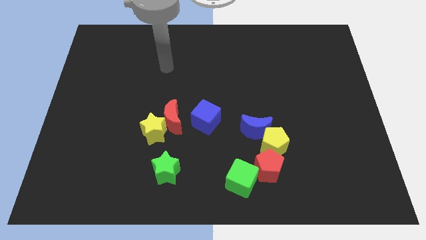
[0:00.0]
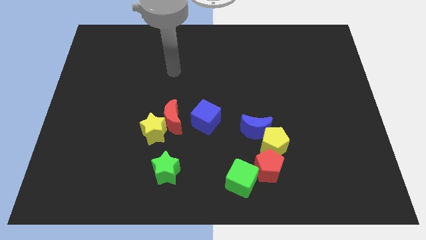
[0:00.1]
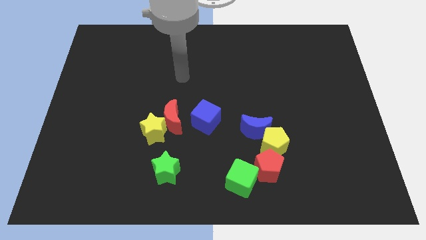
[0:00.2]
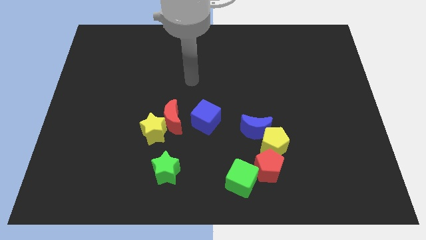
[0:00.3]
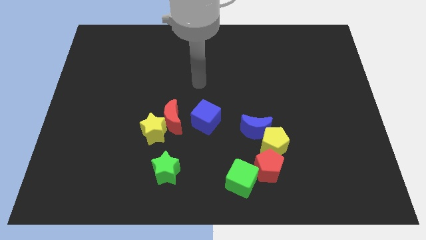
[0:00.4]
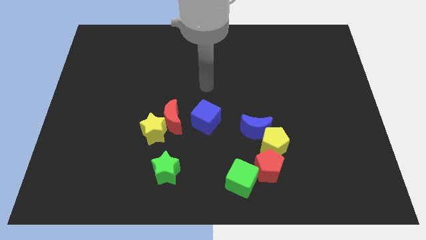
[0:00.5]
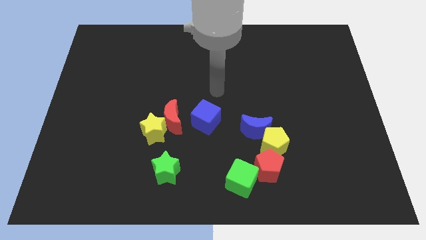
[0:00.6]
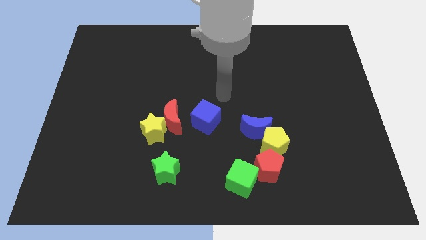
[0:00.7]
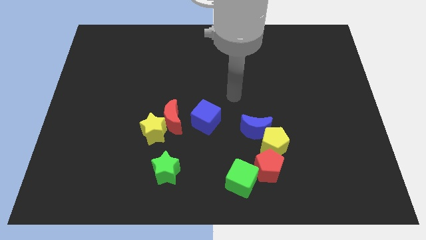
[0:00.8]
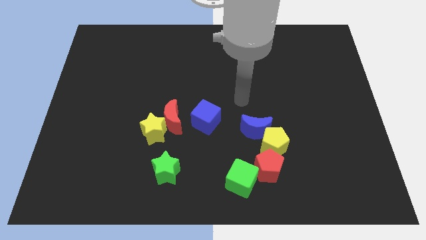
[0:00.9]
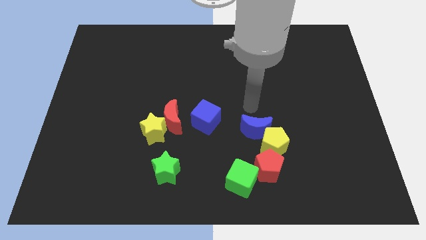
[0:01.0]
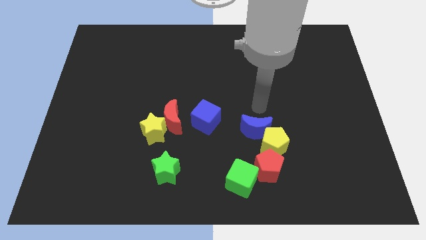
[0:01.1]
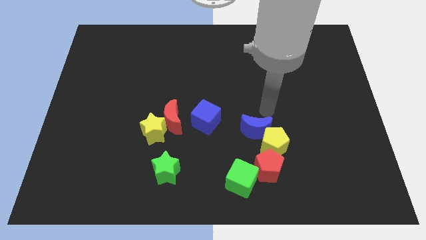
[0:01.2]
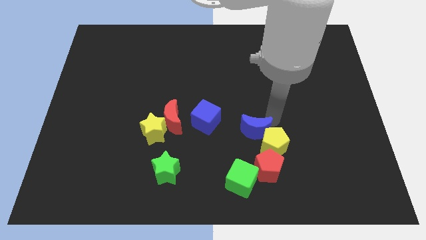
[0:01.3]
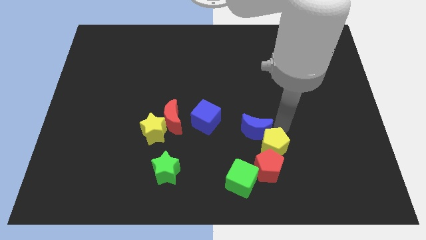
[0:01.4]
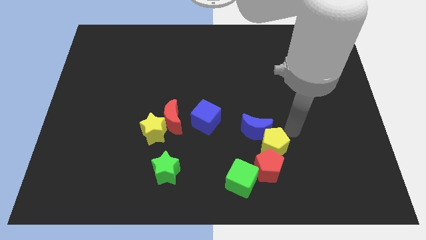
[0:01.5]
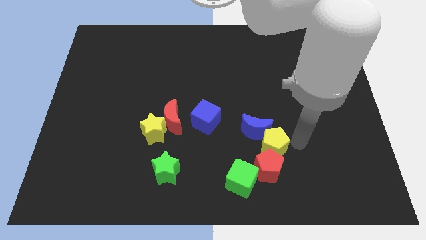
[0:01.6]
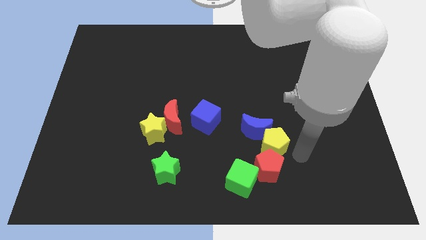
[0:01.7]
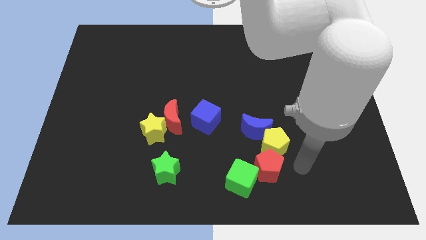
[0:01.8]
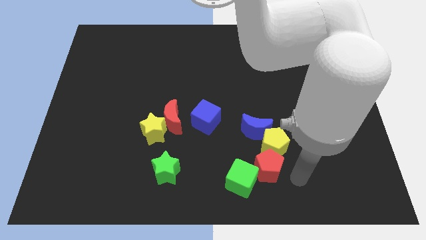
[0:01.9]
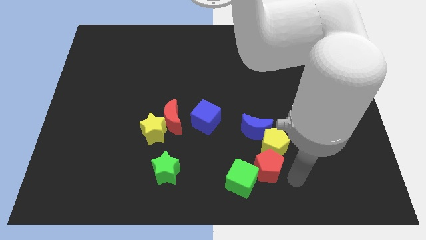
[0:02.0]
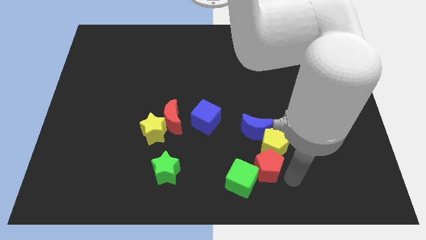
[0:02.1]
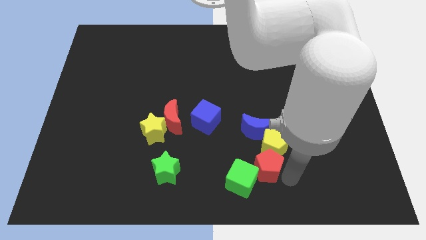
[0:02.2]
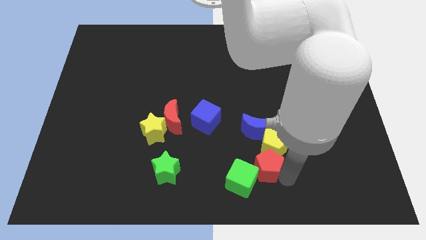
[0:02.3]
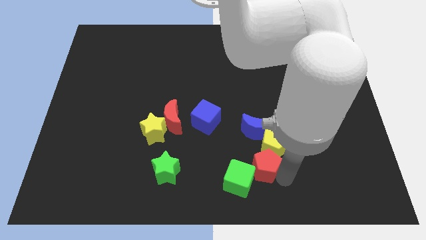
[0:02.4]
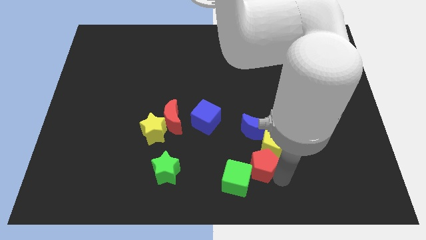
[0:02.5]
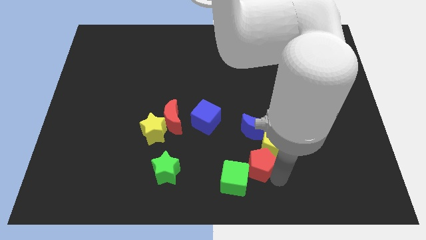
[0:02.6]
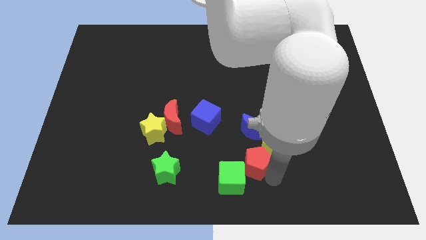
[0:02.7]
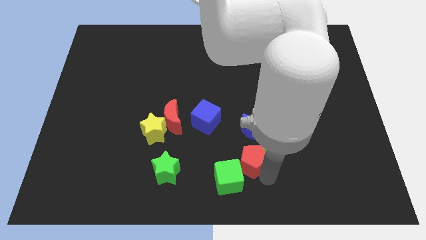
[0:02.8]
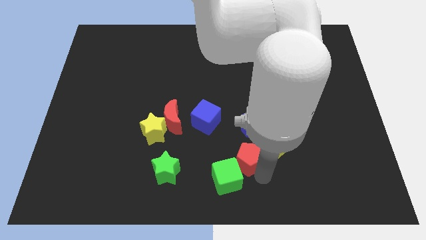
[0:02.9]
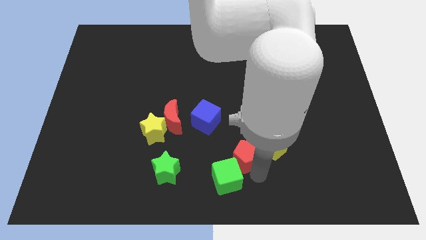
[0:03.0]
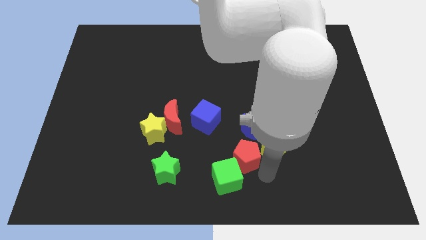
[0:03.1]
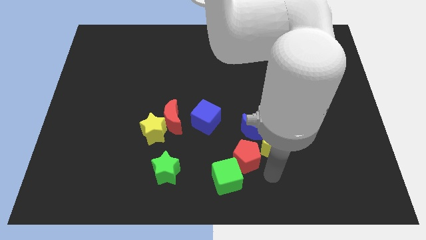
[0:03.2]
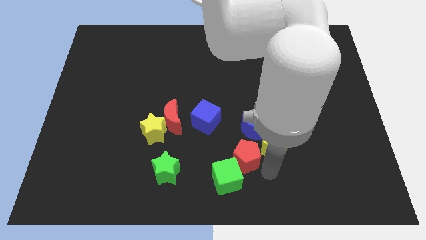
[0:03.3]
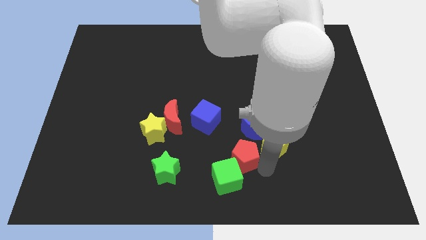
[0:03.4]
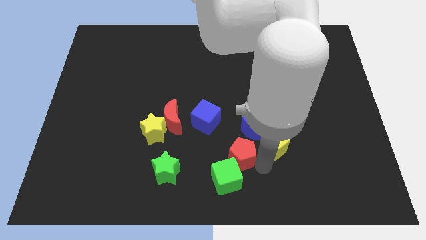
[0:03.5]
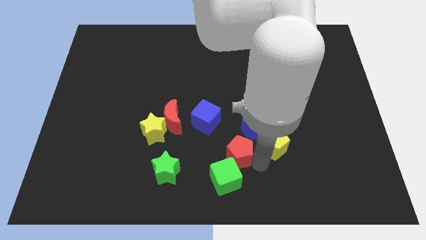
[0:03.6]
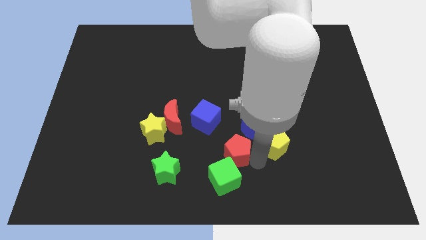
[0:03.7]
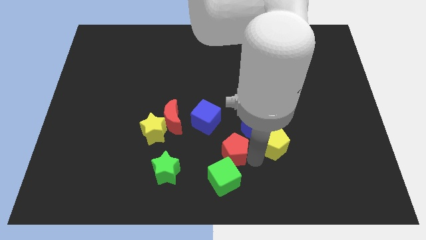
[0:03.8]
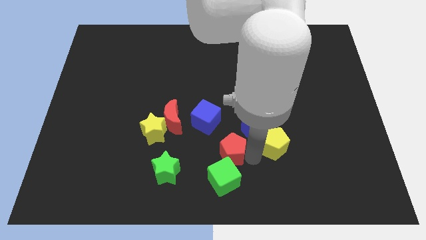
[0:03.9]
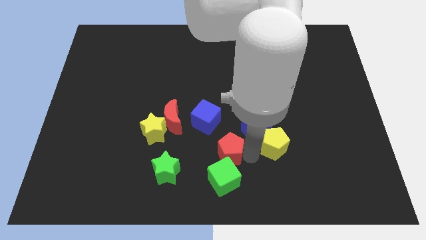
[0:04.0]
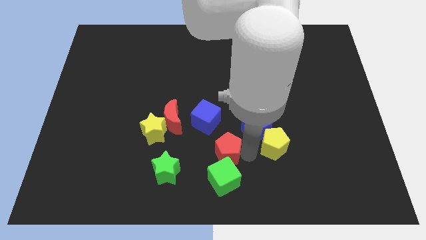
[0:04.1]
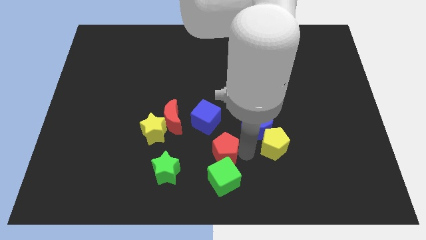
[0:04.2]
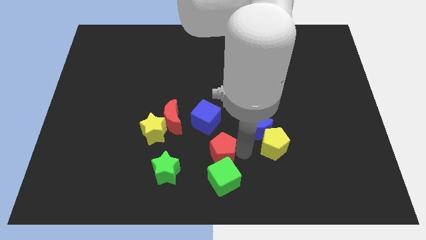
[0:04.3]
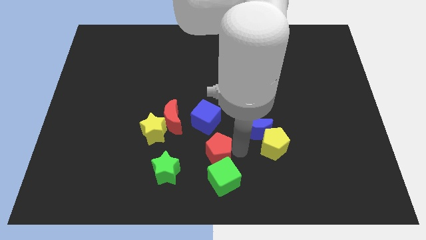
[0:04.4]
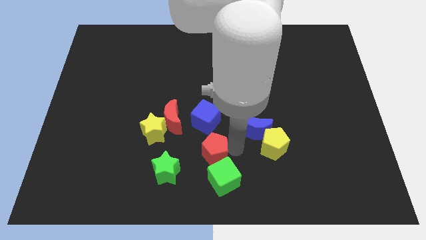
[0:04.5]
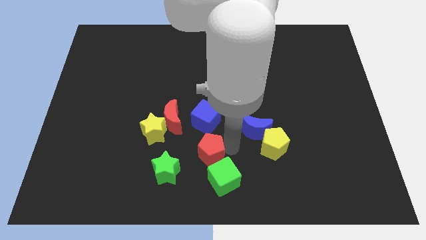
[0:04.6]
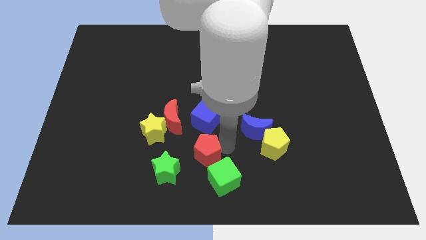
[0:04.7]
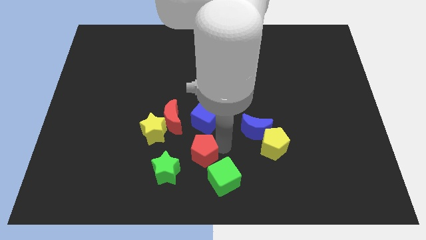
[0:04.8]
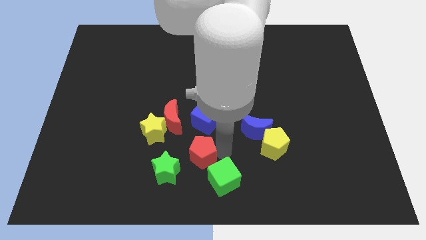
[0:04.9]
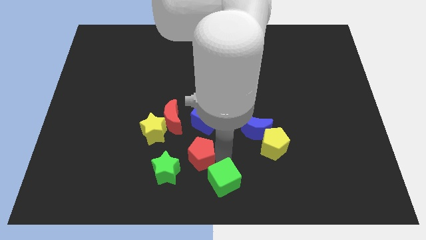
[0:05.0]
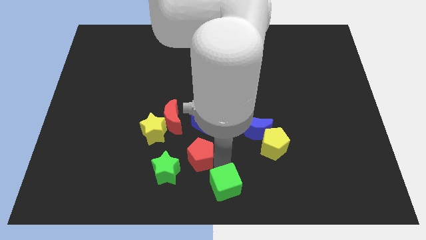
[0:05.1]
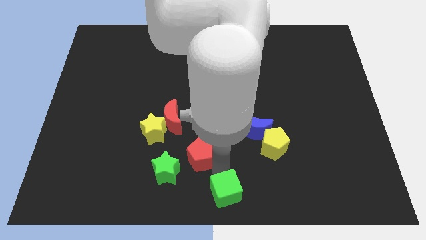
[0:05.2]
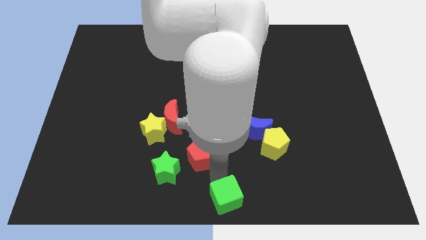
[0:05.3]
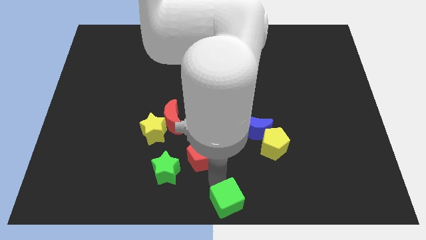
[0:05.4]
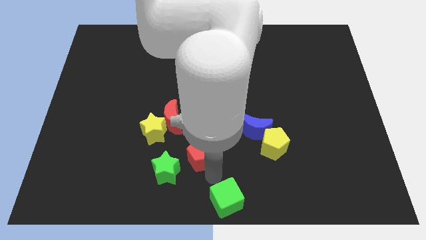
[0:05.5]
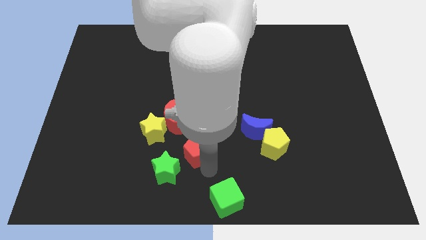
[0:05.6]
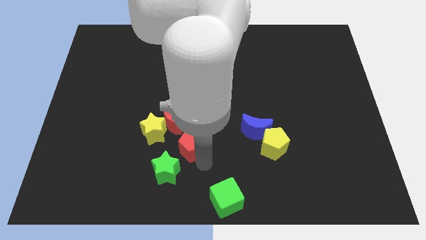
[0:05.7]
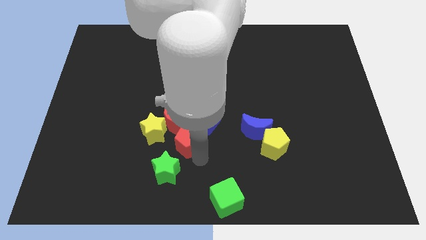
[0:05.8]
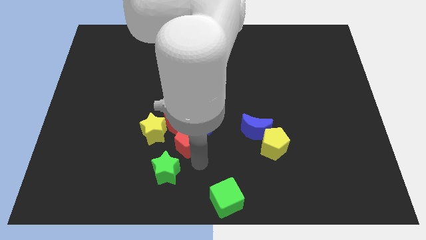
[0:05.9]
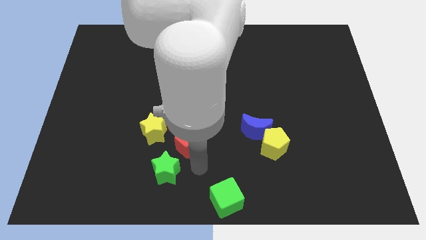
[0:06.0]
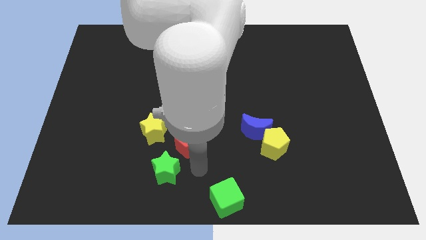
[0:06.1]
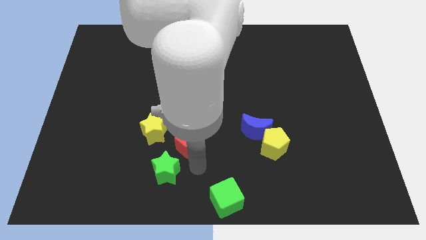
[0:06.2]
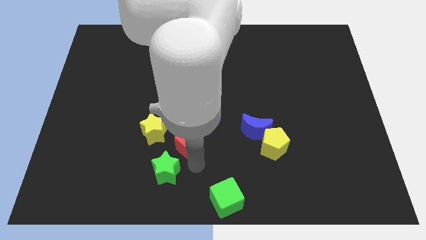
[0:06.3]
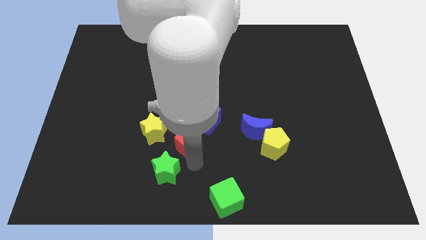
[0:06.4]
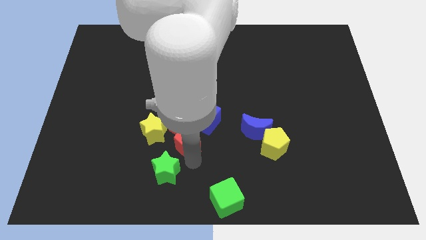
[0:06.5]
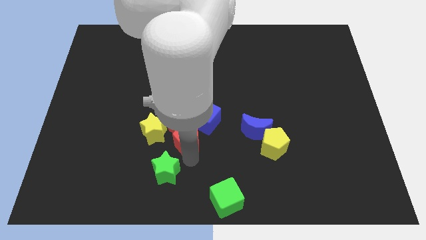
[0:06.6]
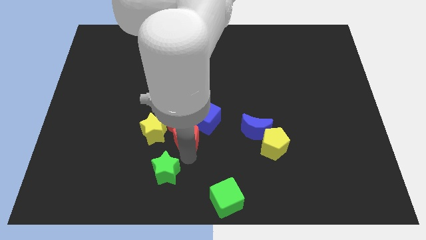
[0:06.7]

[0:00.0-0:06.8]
put the red pentagon next to the red moon

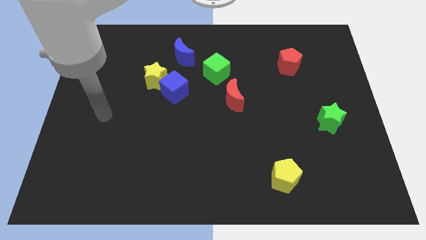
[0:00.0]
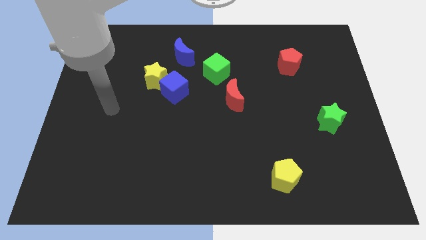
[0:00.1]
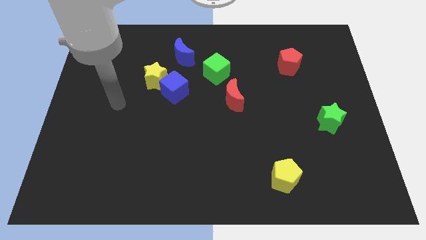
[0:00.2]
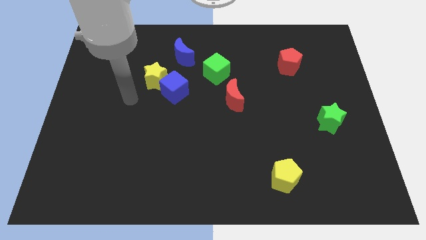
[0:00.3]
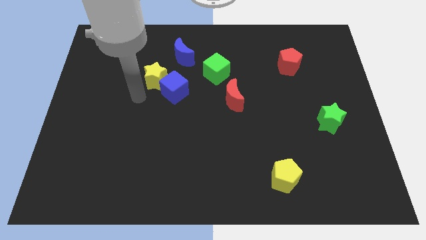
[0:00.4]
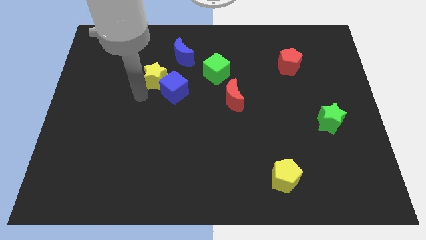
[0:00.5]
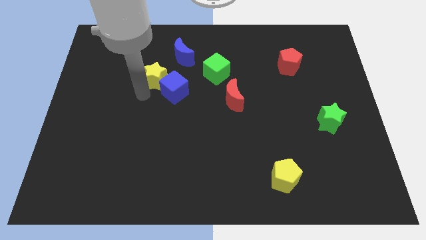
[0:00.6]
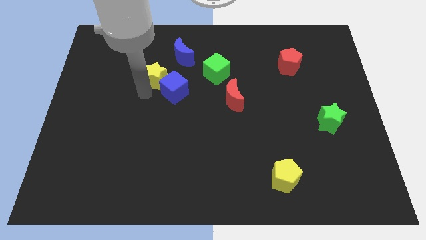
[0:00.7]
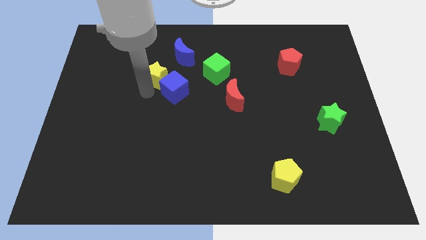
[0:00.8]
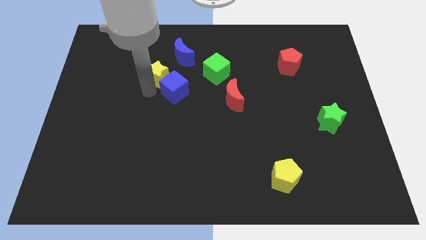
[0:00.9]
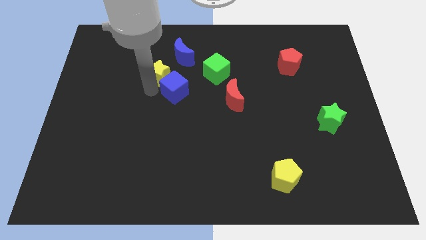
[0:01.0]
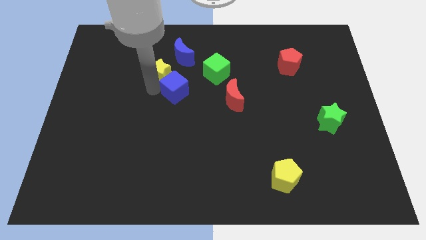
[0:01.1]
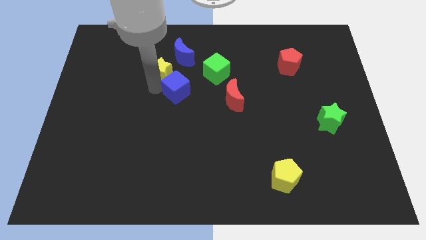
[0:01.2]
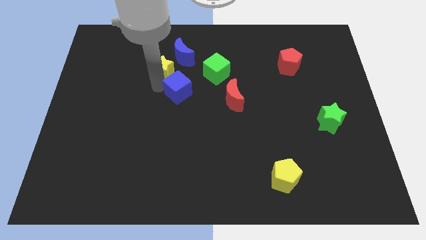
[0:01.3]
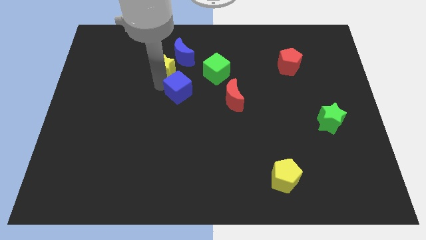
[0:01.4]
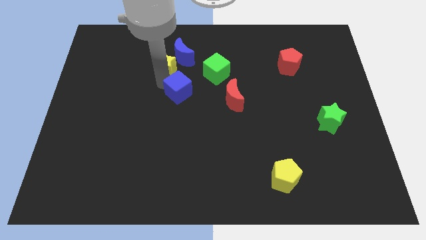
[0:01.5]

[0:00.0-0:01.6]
move the yellow star next to the blue moon
